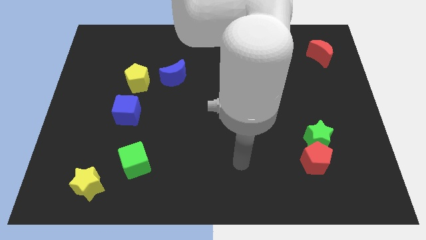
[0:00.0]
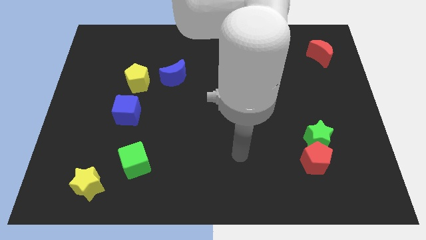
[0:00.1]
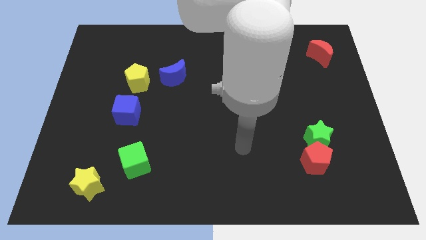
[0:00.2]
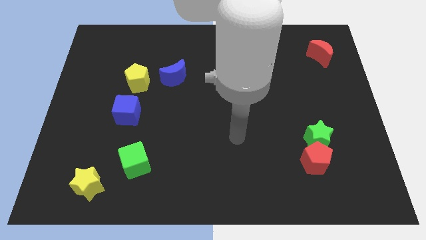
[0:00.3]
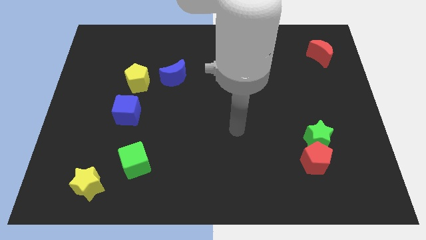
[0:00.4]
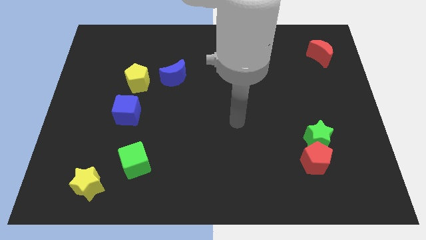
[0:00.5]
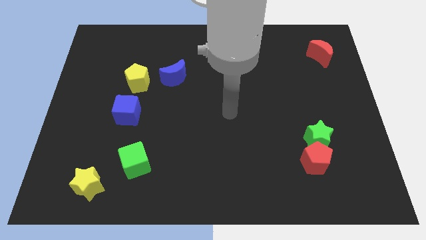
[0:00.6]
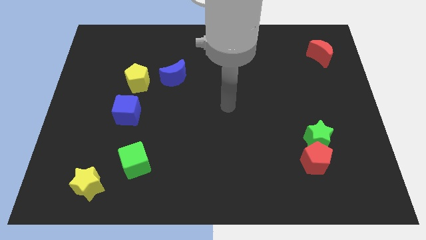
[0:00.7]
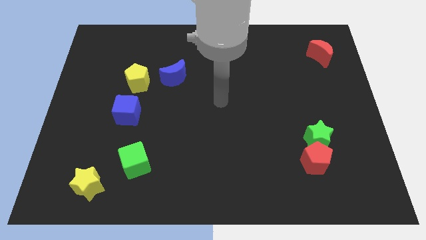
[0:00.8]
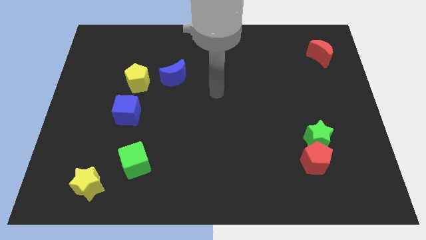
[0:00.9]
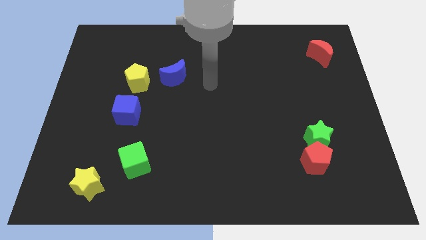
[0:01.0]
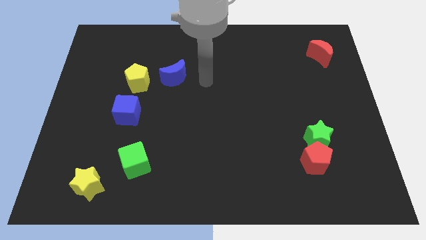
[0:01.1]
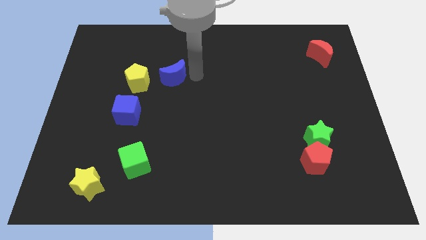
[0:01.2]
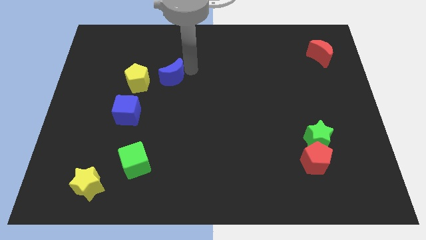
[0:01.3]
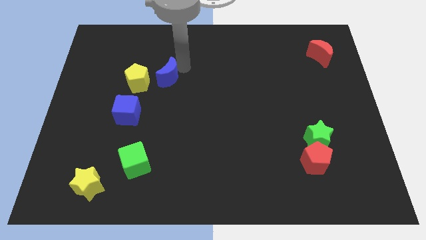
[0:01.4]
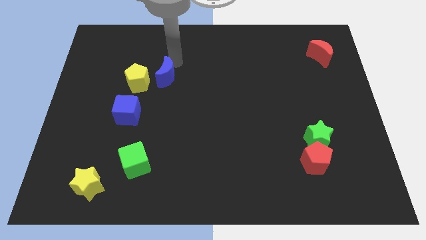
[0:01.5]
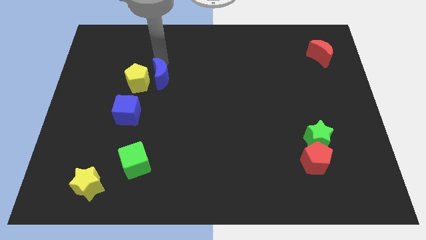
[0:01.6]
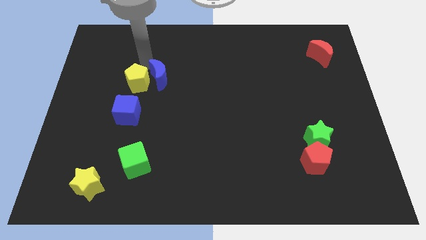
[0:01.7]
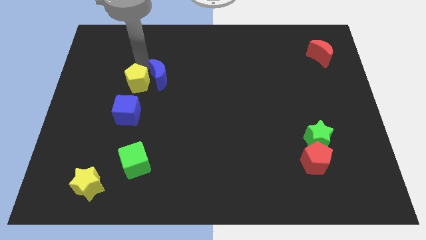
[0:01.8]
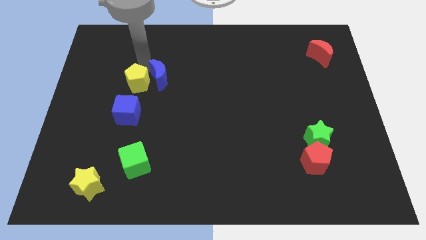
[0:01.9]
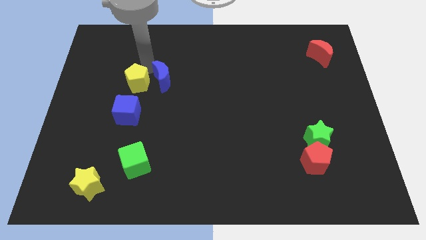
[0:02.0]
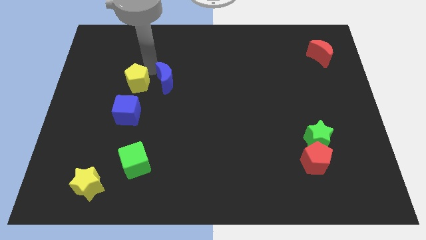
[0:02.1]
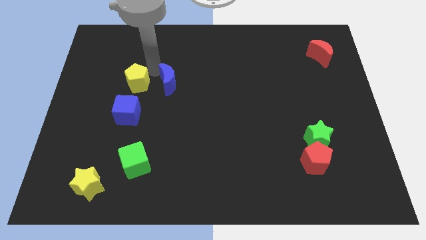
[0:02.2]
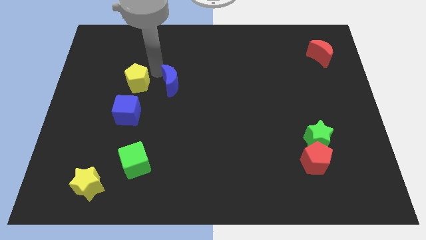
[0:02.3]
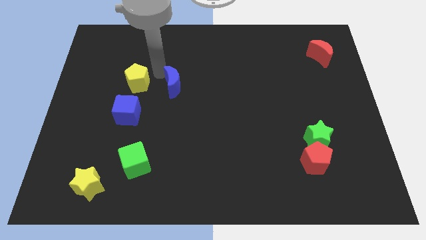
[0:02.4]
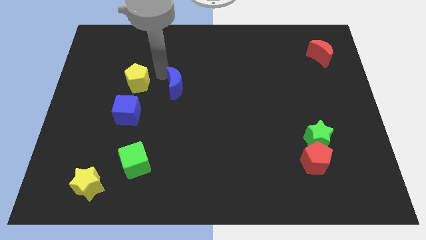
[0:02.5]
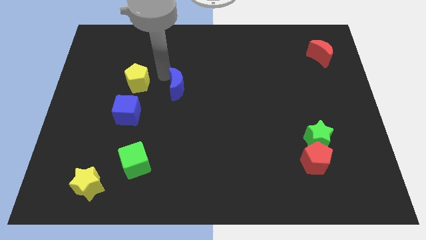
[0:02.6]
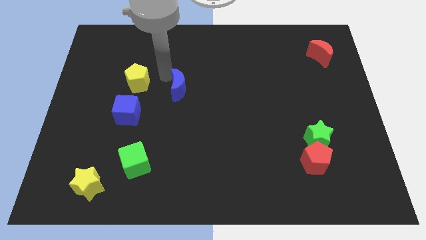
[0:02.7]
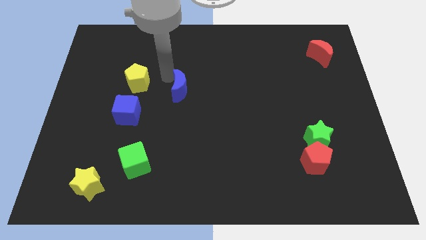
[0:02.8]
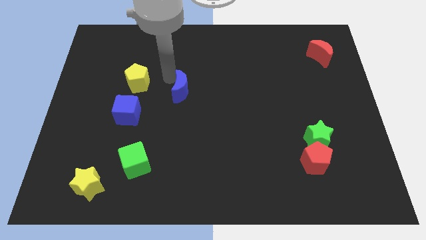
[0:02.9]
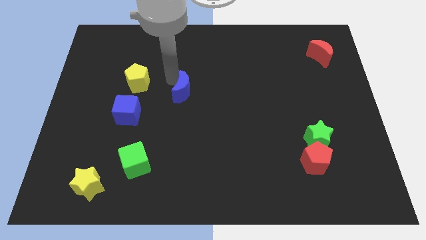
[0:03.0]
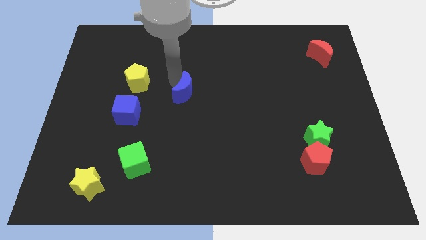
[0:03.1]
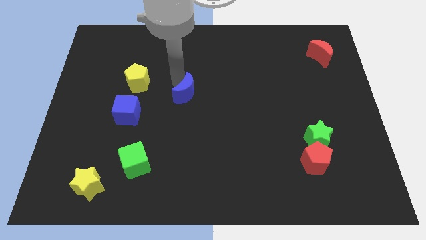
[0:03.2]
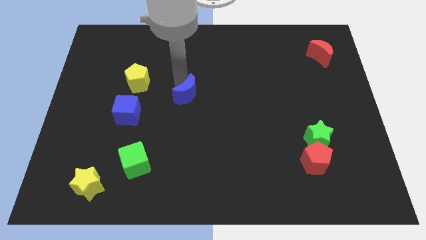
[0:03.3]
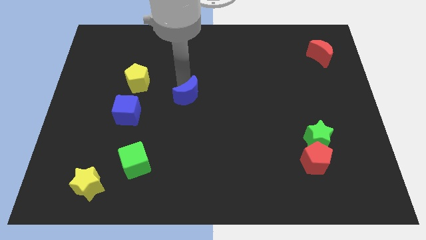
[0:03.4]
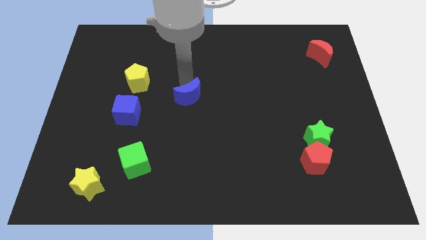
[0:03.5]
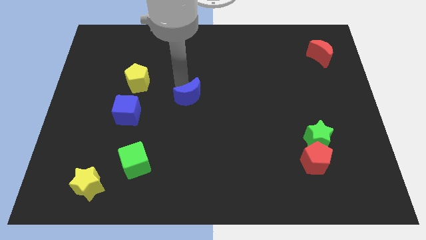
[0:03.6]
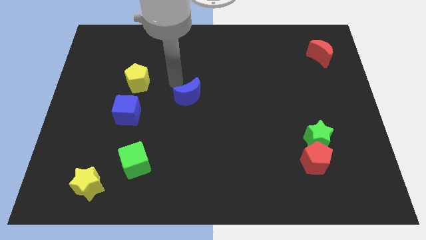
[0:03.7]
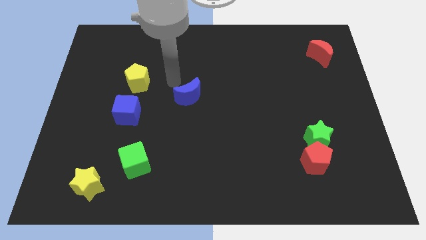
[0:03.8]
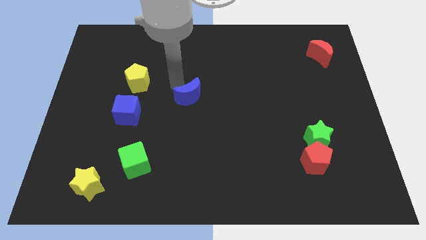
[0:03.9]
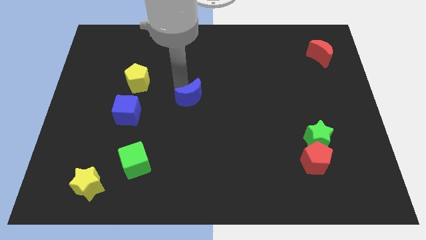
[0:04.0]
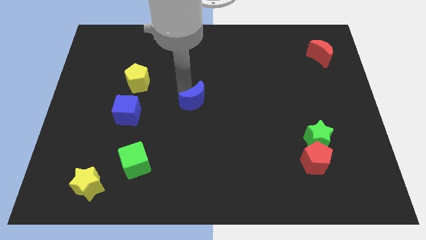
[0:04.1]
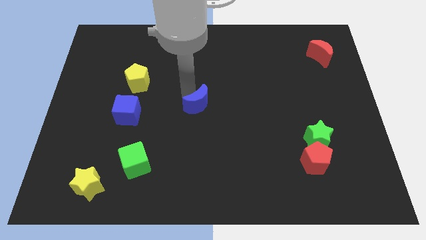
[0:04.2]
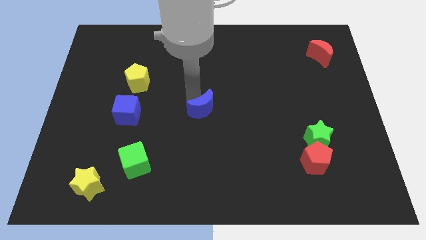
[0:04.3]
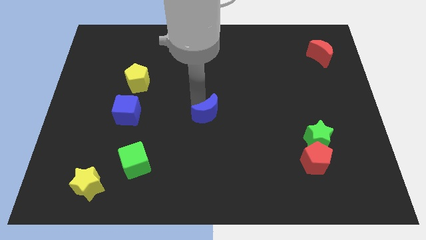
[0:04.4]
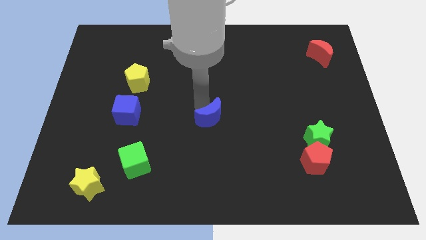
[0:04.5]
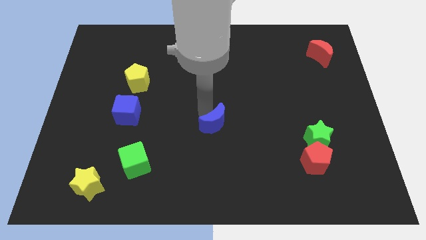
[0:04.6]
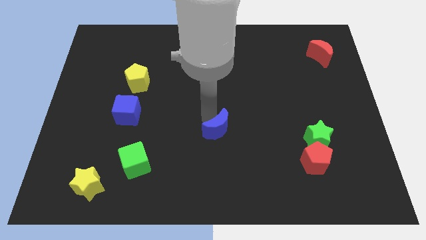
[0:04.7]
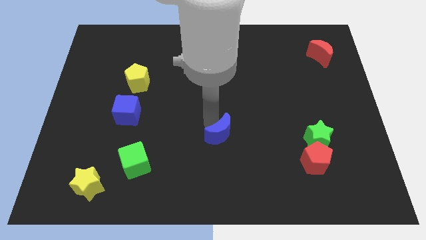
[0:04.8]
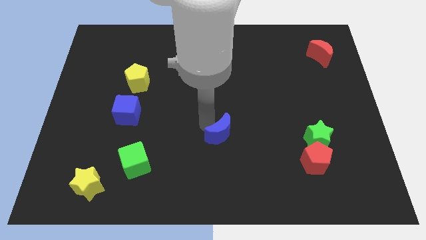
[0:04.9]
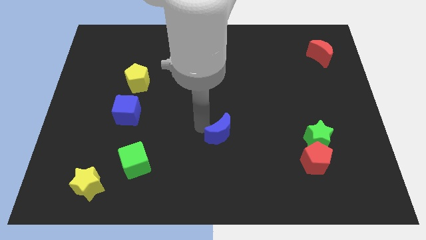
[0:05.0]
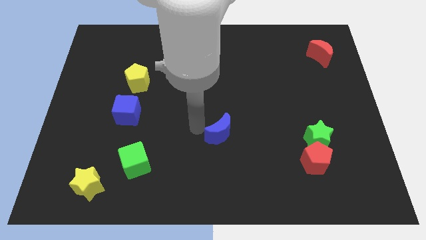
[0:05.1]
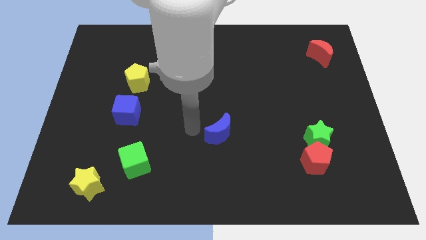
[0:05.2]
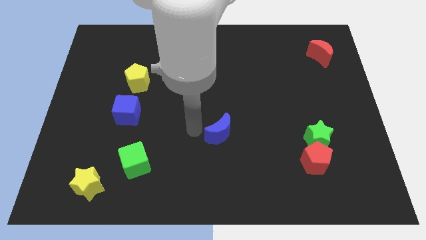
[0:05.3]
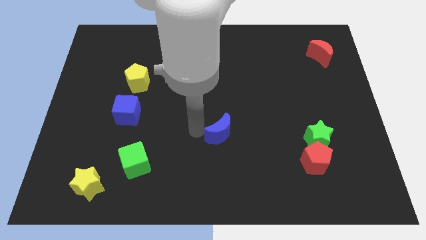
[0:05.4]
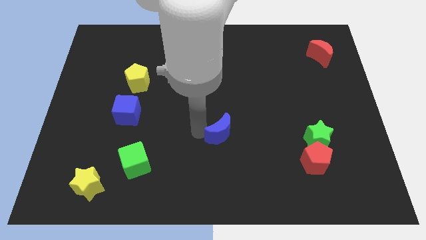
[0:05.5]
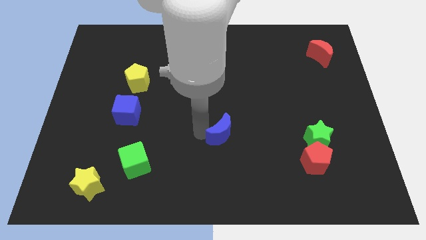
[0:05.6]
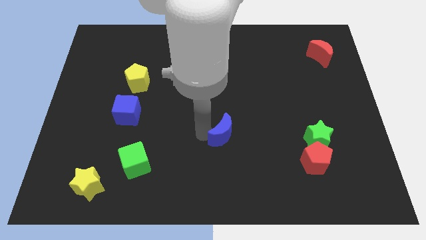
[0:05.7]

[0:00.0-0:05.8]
move the blue moon downwards and then to the right

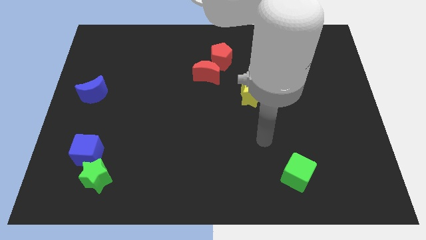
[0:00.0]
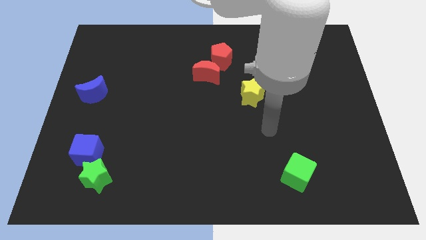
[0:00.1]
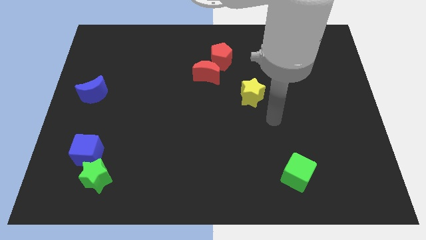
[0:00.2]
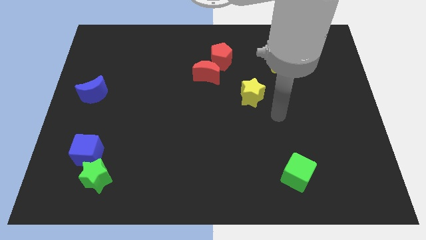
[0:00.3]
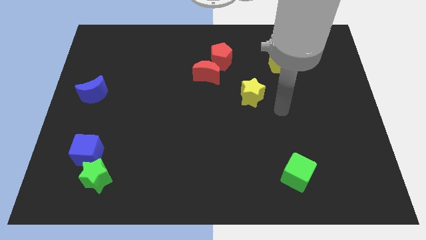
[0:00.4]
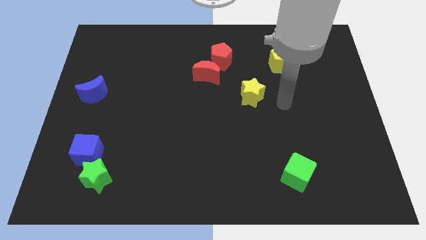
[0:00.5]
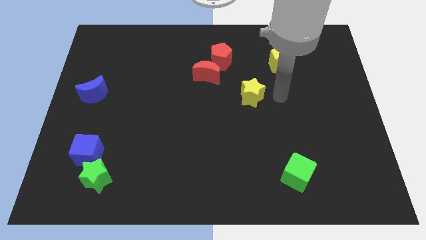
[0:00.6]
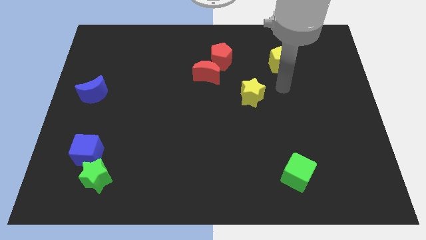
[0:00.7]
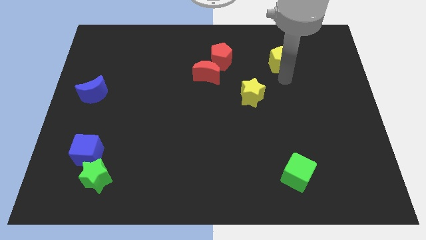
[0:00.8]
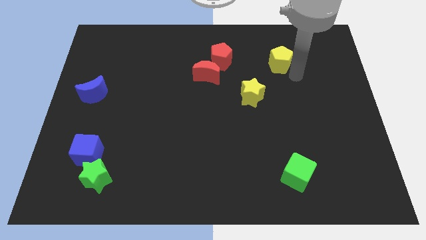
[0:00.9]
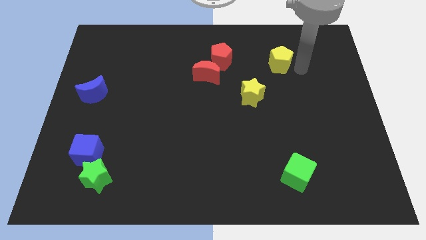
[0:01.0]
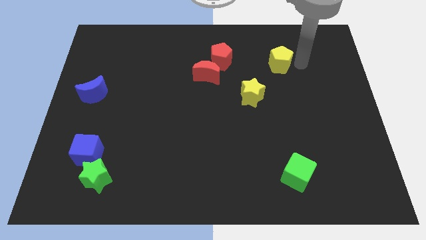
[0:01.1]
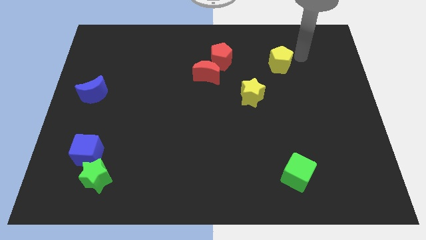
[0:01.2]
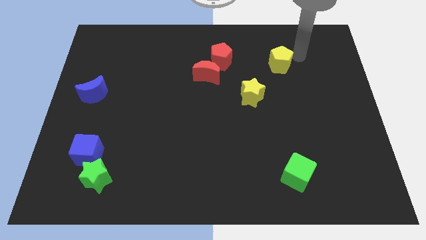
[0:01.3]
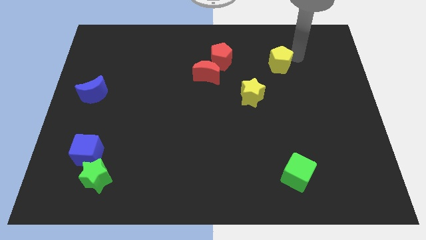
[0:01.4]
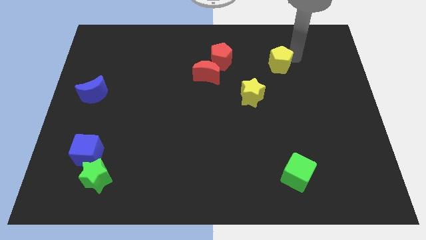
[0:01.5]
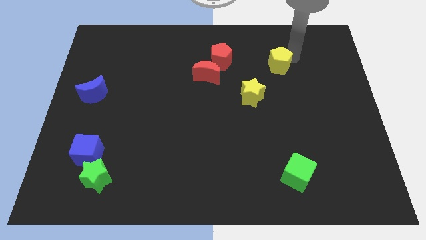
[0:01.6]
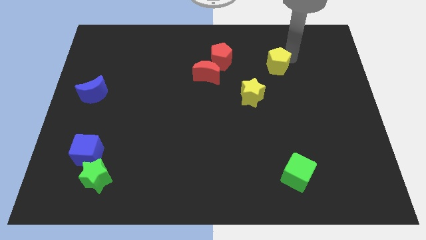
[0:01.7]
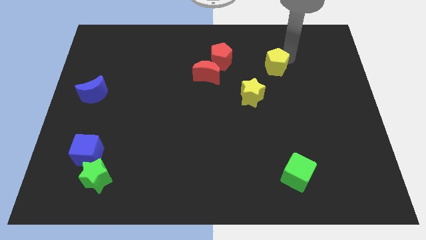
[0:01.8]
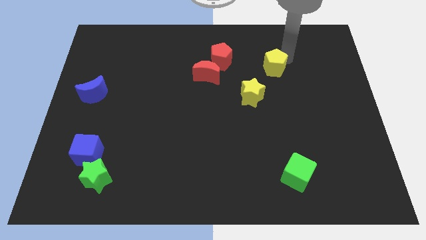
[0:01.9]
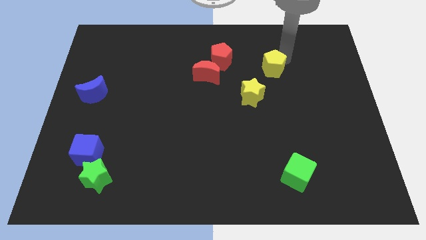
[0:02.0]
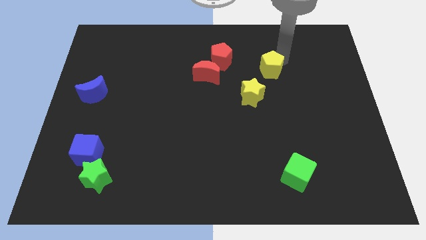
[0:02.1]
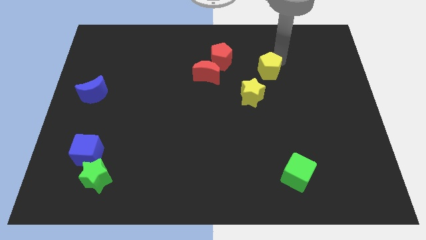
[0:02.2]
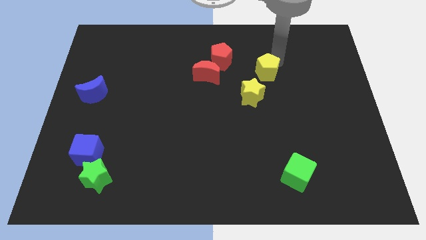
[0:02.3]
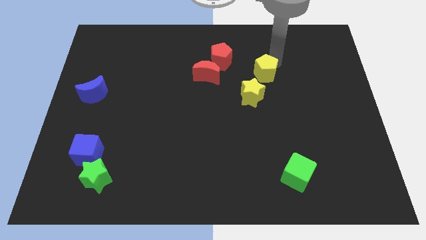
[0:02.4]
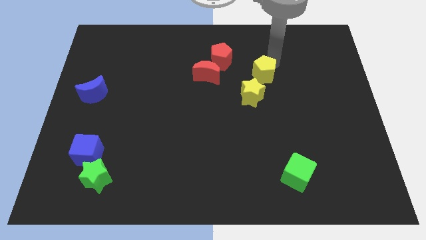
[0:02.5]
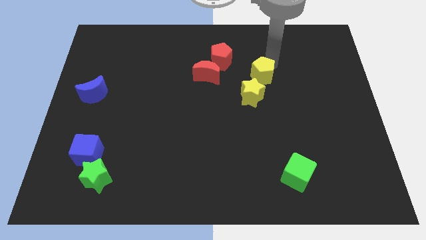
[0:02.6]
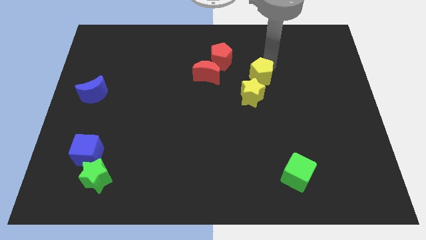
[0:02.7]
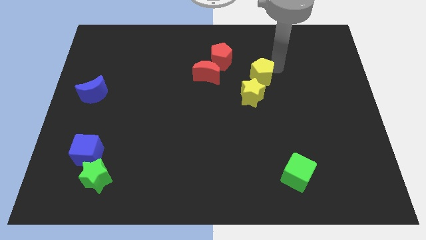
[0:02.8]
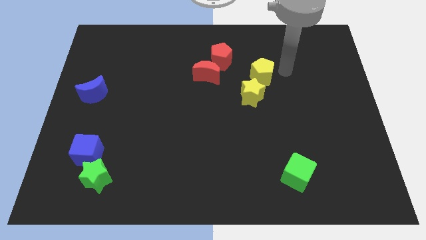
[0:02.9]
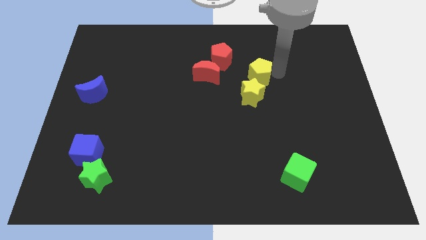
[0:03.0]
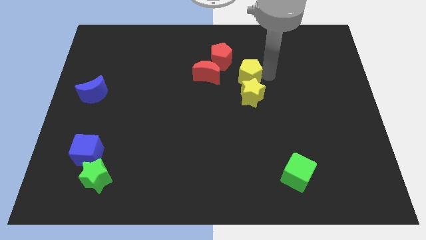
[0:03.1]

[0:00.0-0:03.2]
slide the yellow pentagon to the left a little
